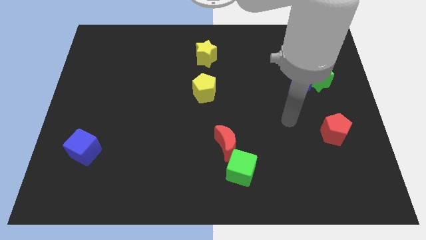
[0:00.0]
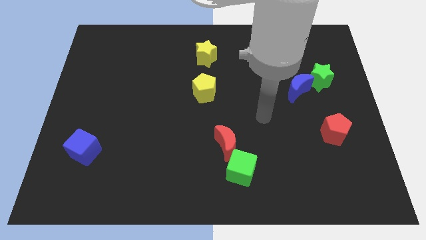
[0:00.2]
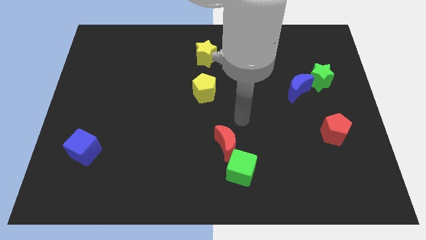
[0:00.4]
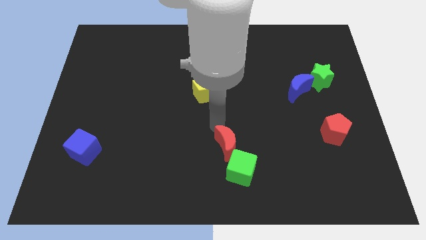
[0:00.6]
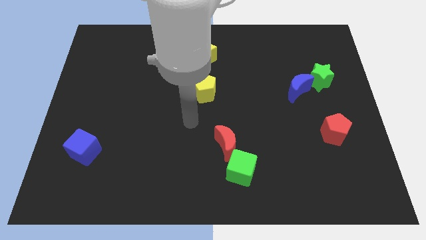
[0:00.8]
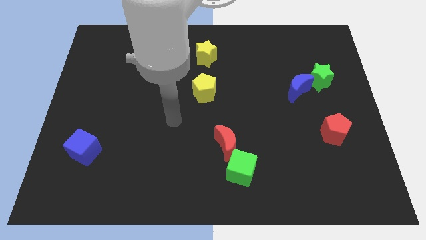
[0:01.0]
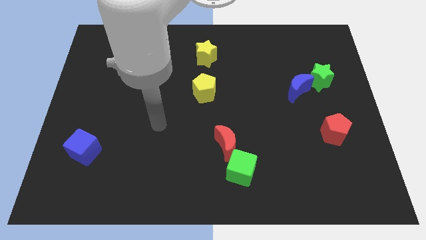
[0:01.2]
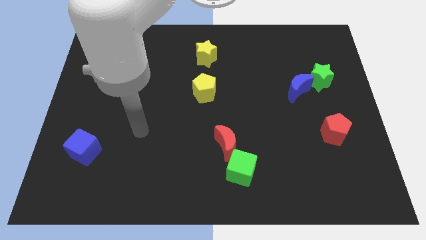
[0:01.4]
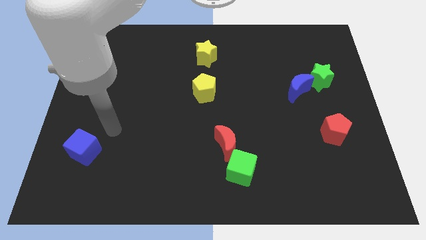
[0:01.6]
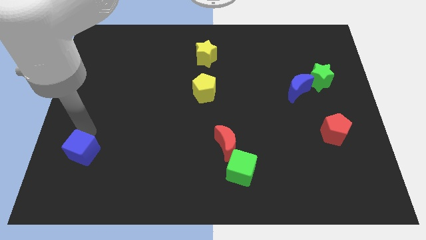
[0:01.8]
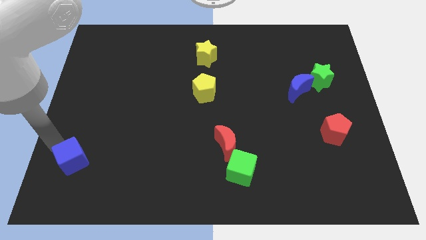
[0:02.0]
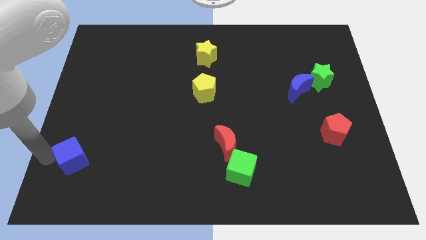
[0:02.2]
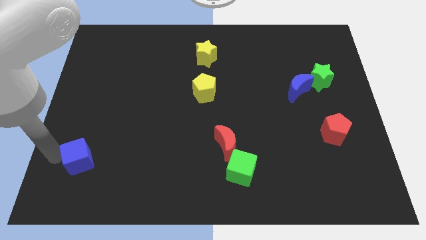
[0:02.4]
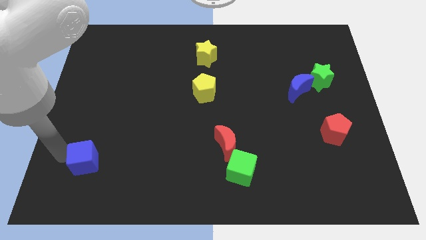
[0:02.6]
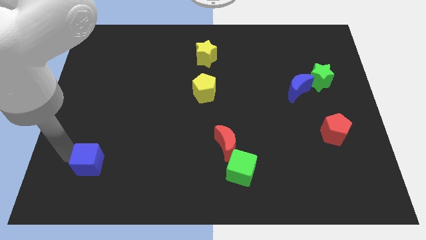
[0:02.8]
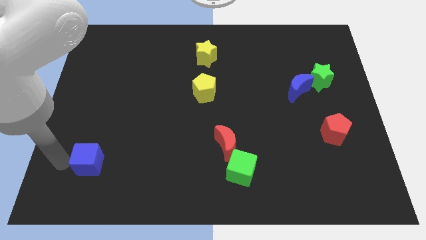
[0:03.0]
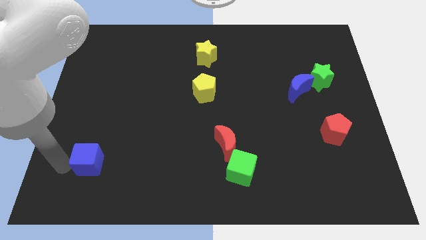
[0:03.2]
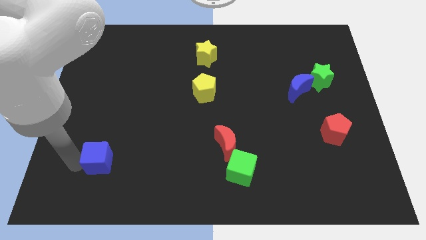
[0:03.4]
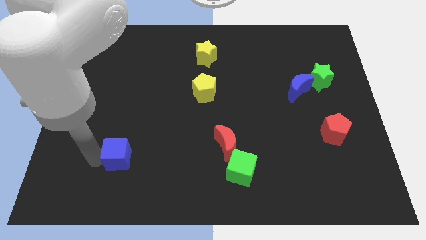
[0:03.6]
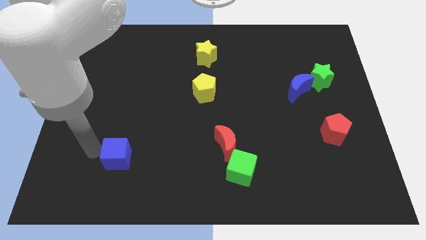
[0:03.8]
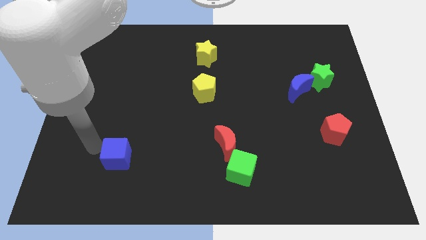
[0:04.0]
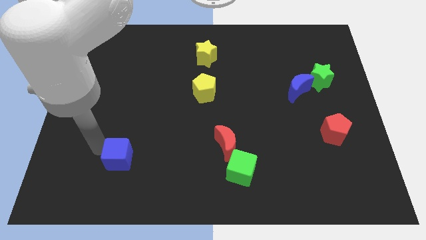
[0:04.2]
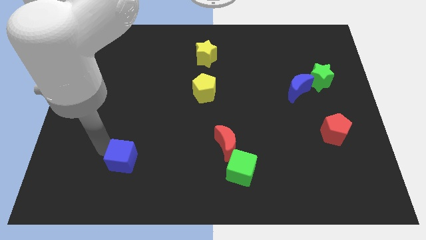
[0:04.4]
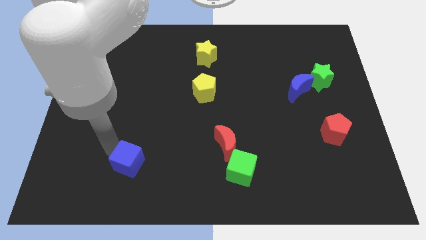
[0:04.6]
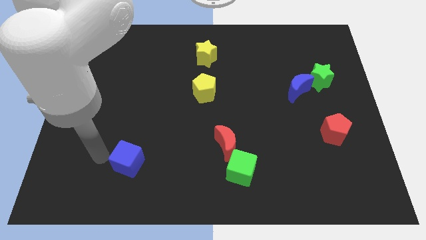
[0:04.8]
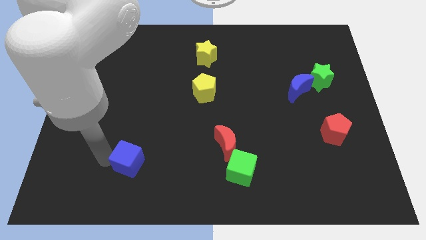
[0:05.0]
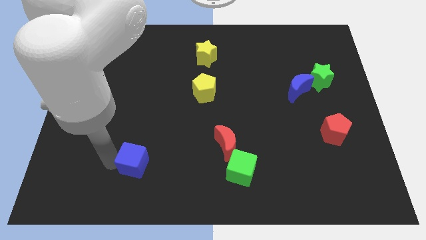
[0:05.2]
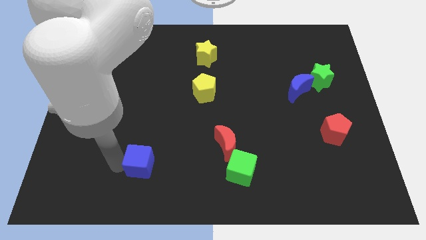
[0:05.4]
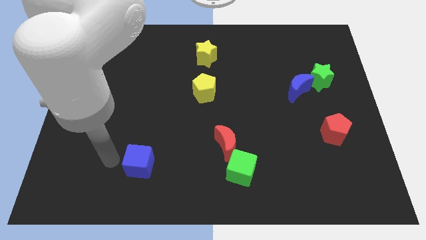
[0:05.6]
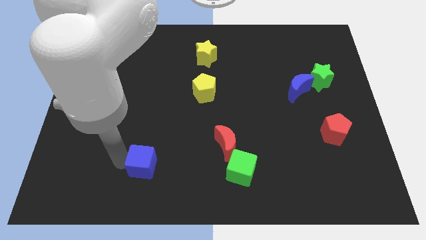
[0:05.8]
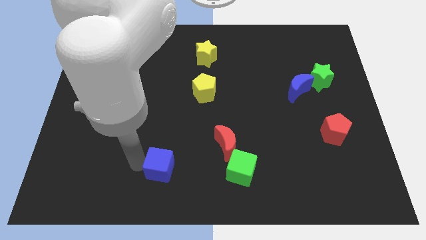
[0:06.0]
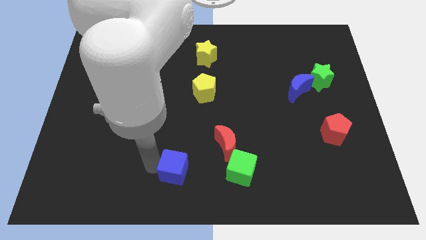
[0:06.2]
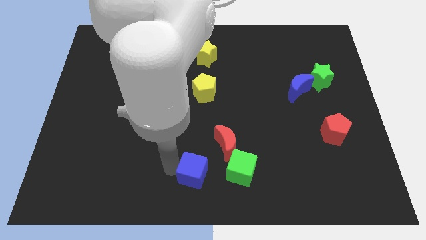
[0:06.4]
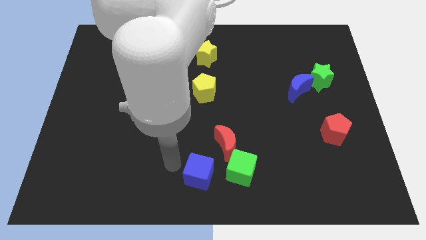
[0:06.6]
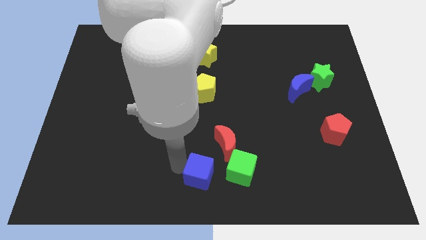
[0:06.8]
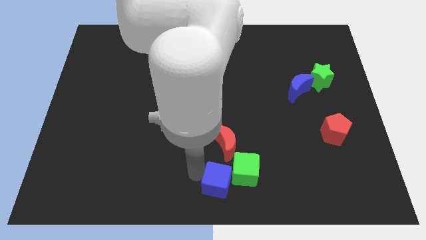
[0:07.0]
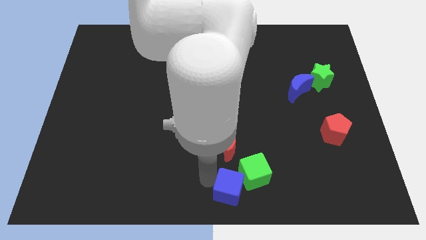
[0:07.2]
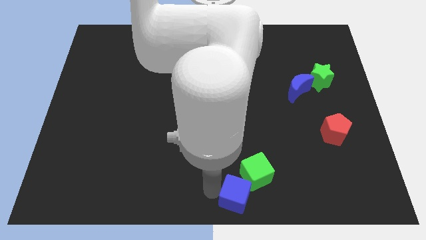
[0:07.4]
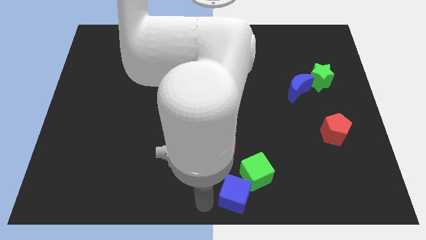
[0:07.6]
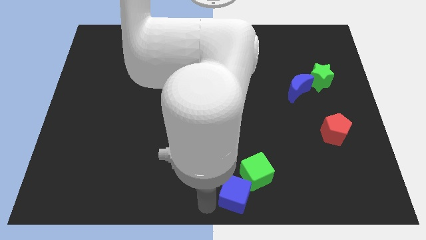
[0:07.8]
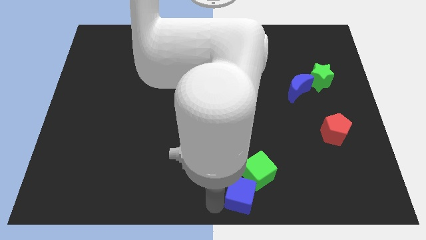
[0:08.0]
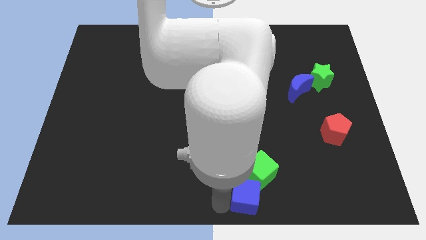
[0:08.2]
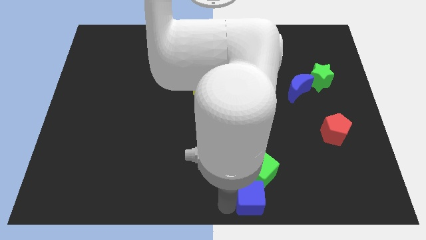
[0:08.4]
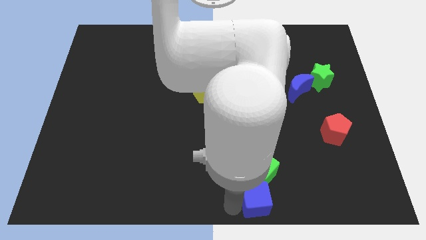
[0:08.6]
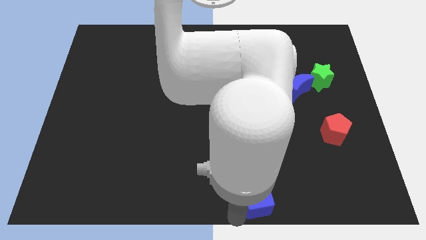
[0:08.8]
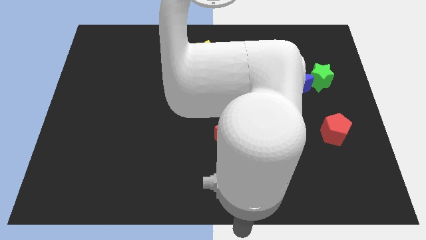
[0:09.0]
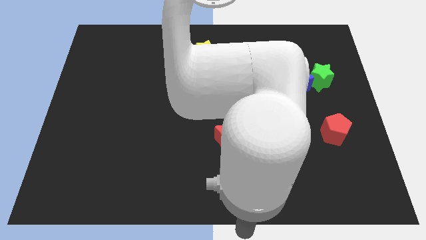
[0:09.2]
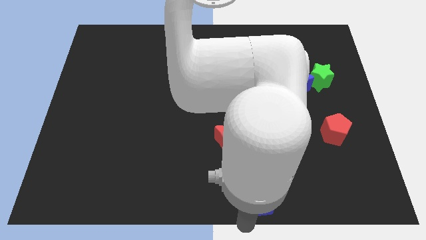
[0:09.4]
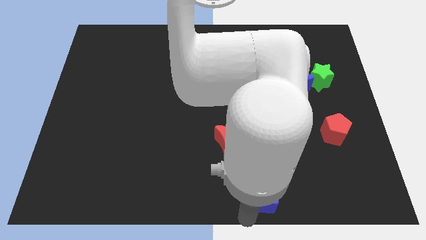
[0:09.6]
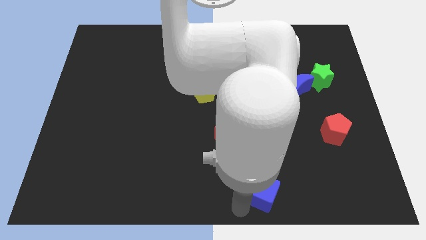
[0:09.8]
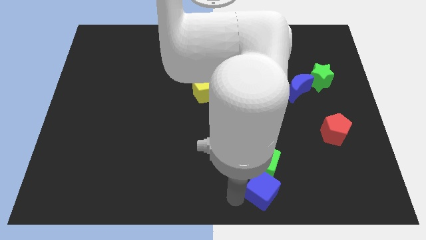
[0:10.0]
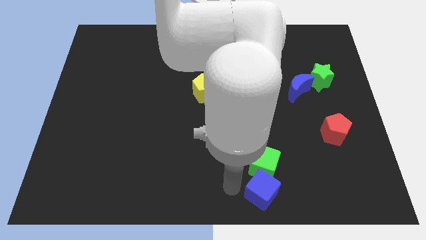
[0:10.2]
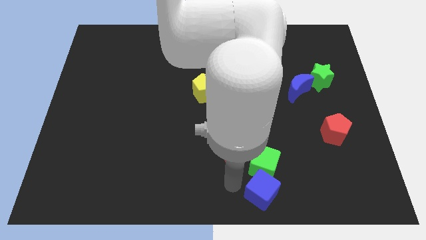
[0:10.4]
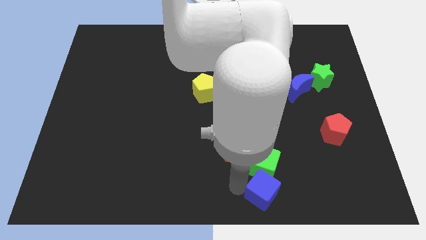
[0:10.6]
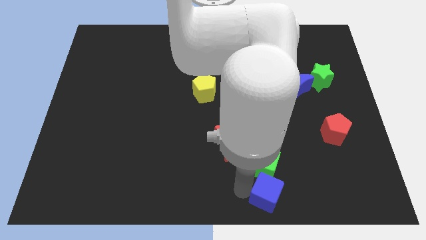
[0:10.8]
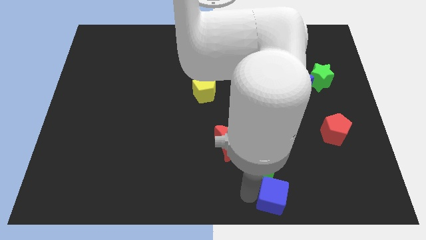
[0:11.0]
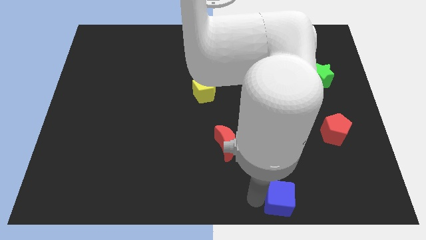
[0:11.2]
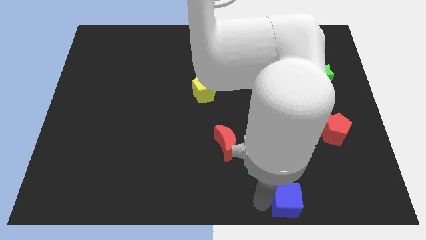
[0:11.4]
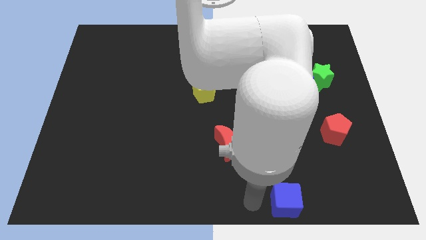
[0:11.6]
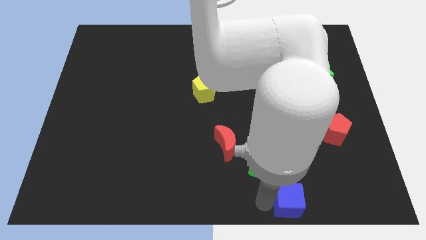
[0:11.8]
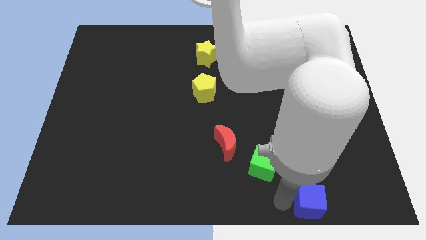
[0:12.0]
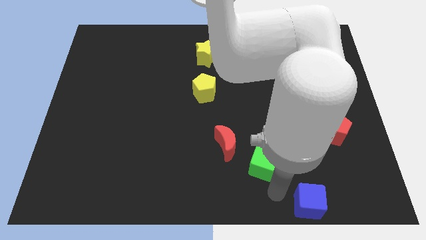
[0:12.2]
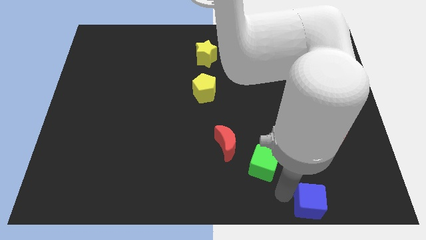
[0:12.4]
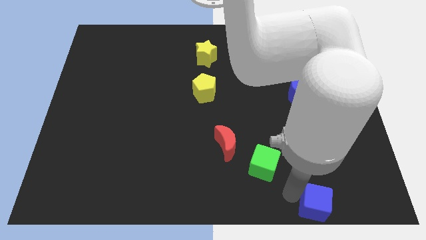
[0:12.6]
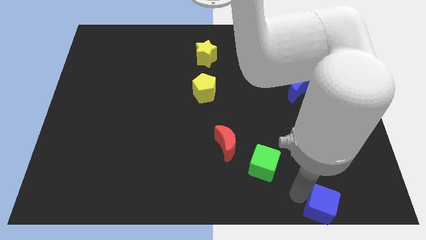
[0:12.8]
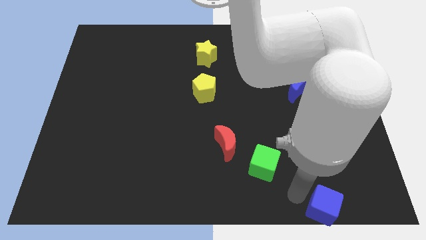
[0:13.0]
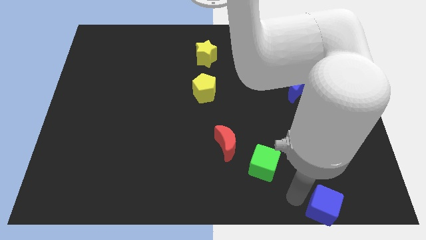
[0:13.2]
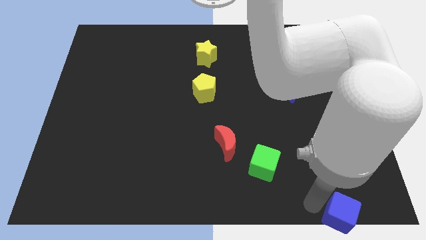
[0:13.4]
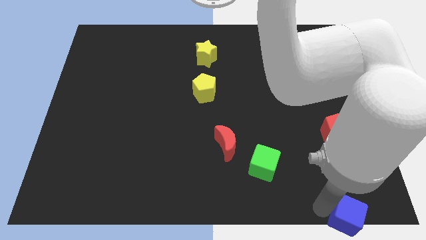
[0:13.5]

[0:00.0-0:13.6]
slide the blue cube to the bottom right corner
